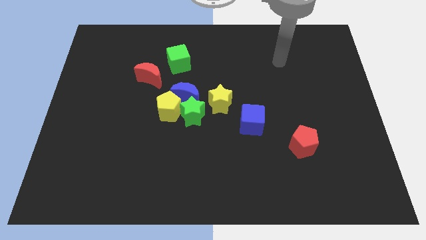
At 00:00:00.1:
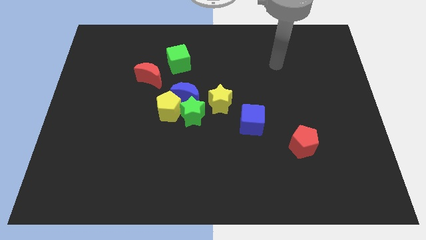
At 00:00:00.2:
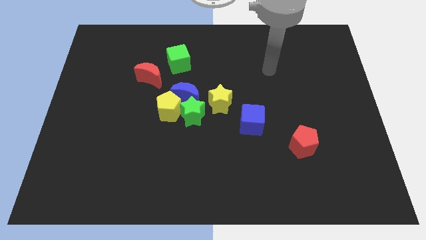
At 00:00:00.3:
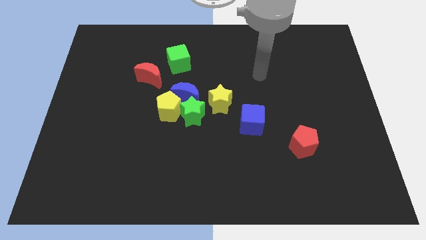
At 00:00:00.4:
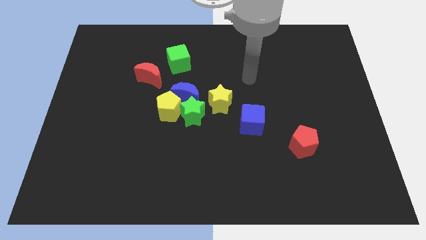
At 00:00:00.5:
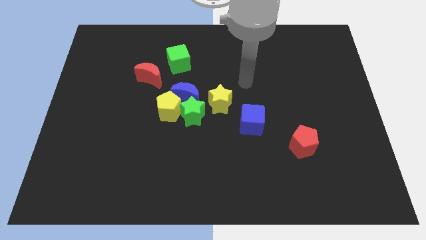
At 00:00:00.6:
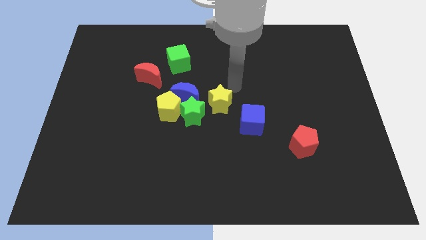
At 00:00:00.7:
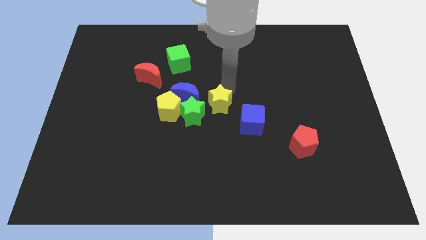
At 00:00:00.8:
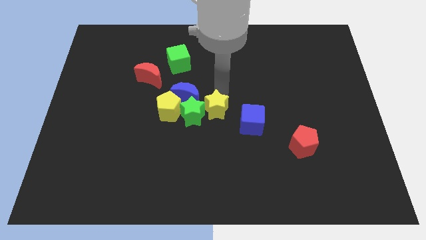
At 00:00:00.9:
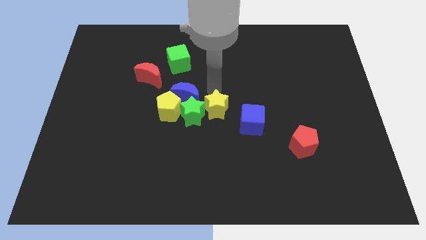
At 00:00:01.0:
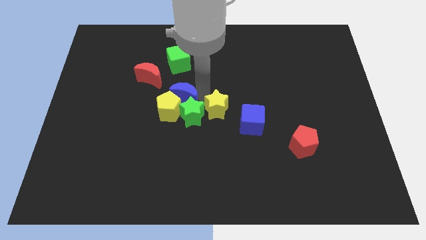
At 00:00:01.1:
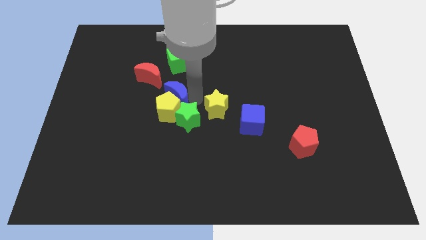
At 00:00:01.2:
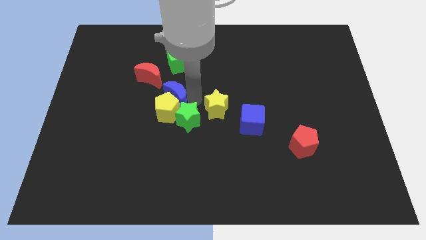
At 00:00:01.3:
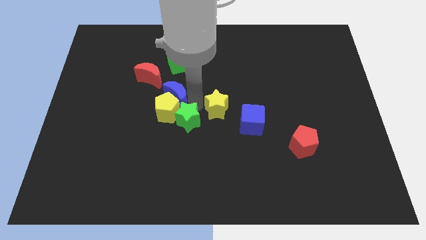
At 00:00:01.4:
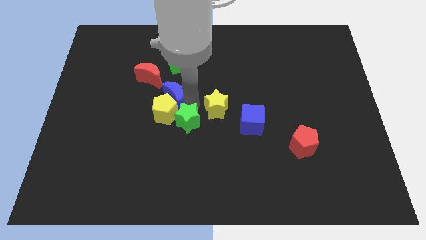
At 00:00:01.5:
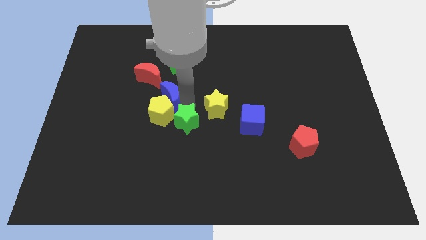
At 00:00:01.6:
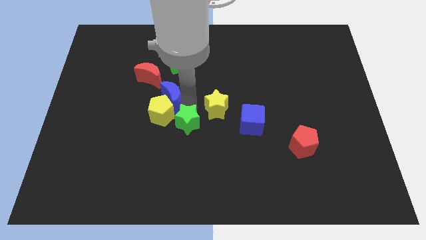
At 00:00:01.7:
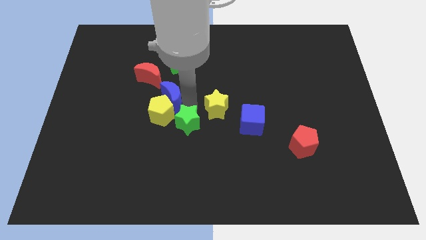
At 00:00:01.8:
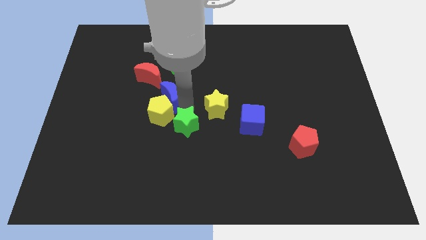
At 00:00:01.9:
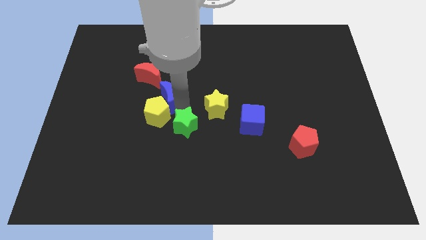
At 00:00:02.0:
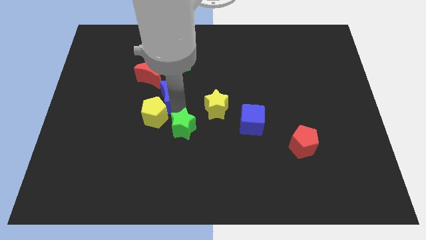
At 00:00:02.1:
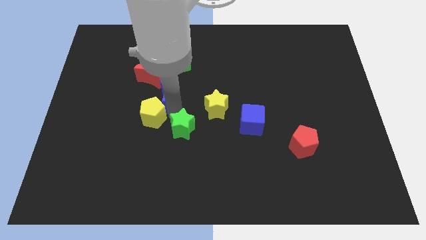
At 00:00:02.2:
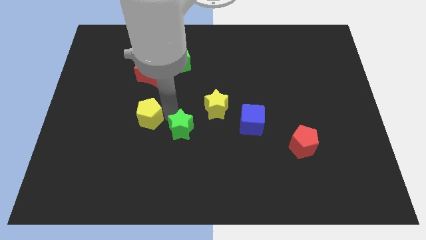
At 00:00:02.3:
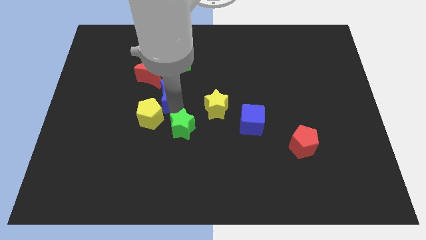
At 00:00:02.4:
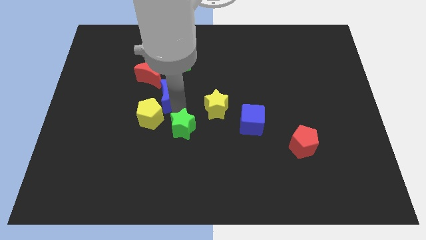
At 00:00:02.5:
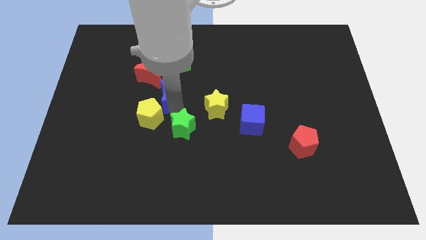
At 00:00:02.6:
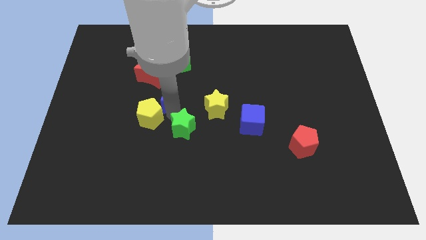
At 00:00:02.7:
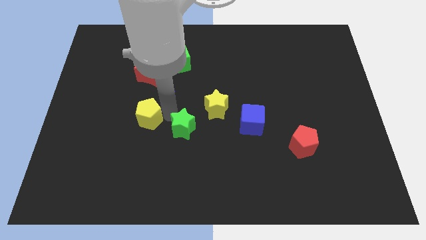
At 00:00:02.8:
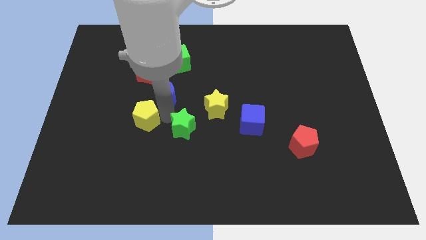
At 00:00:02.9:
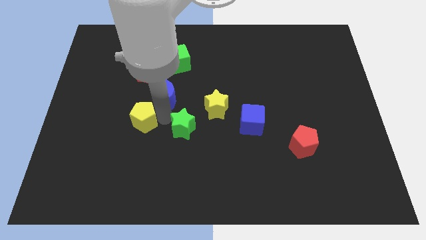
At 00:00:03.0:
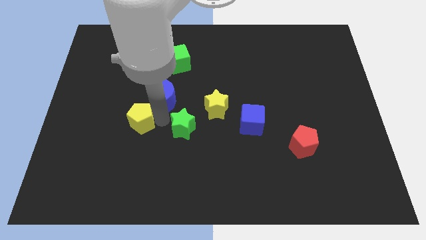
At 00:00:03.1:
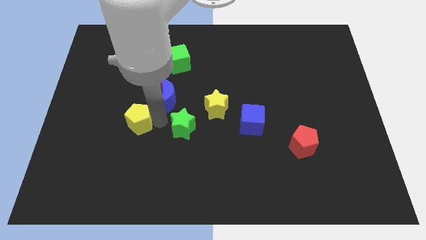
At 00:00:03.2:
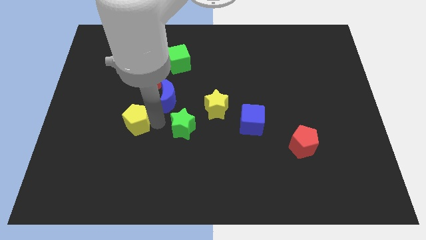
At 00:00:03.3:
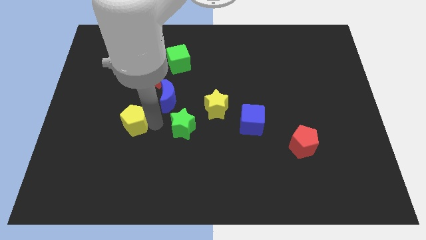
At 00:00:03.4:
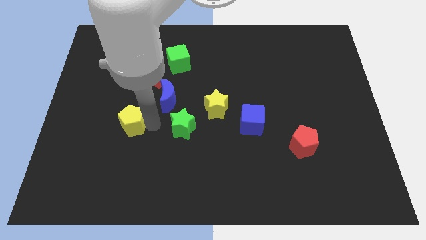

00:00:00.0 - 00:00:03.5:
move the yellow pentagon away from the blue moon and green star

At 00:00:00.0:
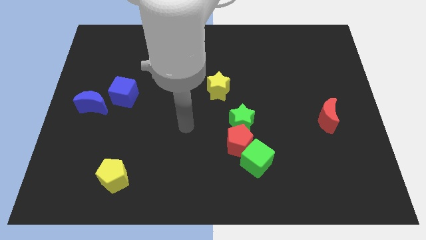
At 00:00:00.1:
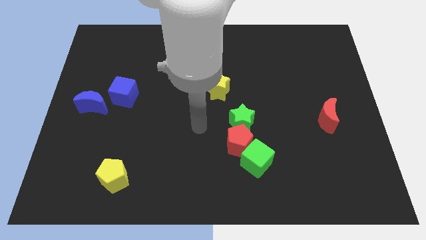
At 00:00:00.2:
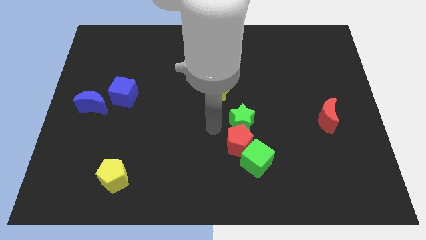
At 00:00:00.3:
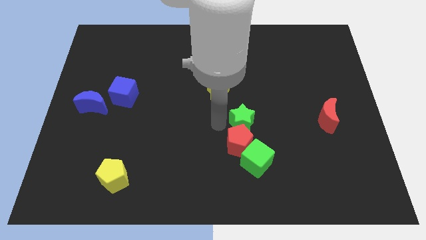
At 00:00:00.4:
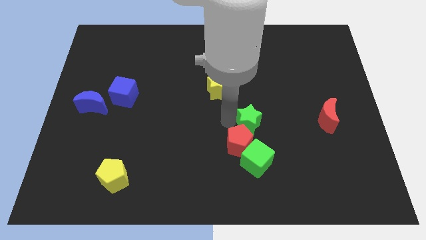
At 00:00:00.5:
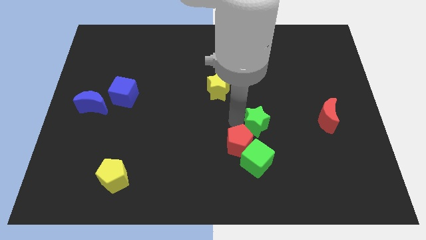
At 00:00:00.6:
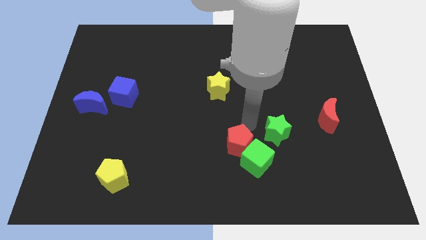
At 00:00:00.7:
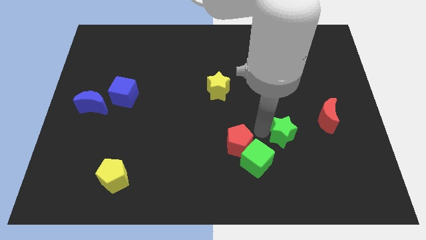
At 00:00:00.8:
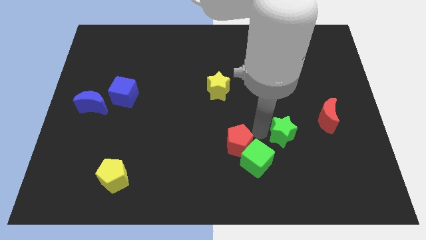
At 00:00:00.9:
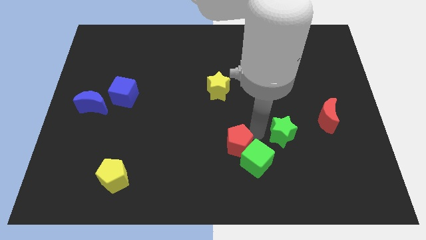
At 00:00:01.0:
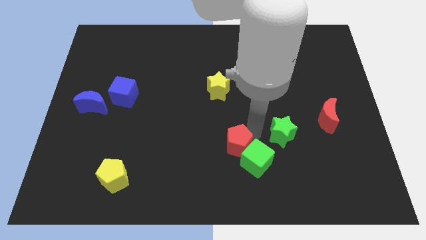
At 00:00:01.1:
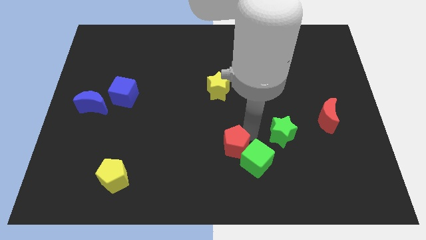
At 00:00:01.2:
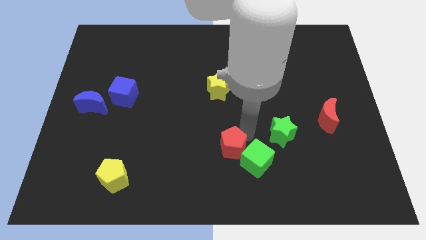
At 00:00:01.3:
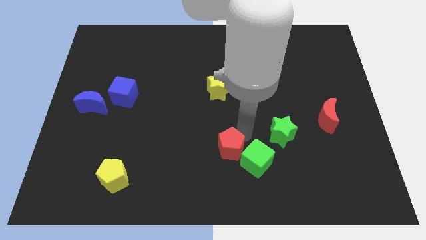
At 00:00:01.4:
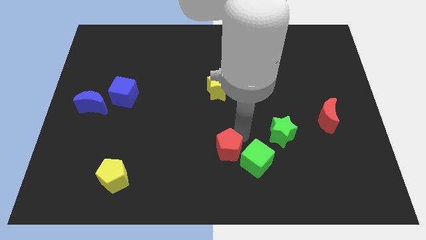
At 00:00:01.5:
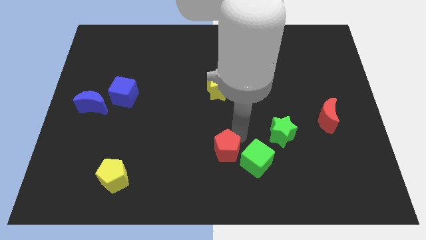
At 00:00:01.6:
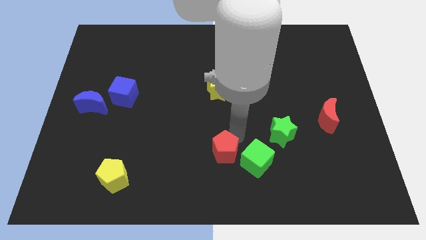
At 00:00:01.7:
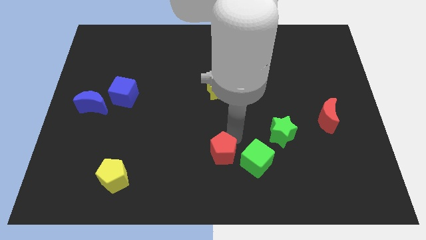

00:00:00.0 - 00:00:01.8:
separate the red pentagon from the green star and green cube

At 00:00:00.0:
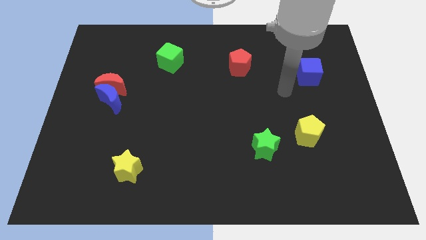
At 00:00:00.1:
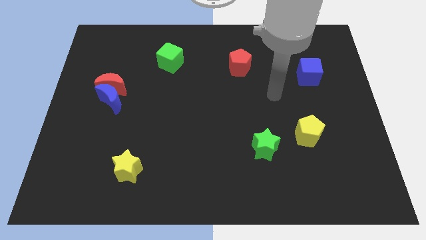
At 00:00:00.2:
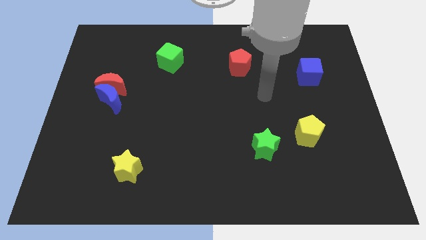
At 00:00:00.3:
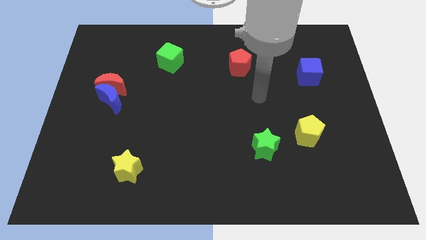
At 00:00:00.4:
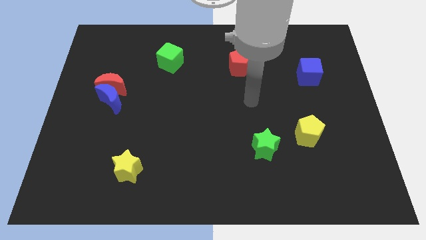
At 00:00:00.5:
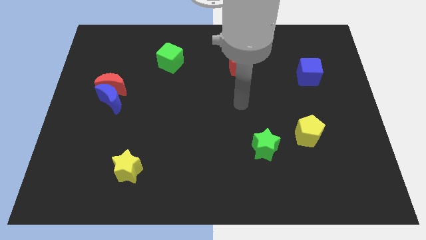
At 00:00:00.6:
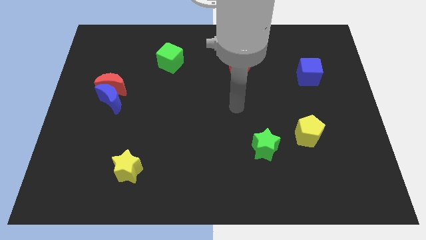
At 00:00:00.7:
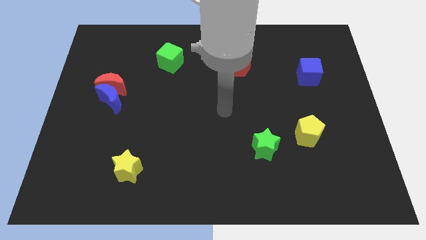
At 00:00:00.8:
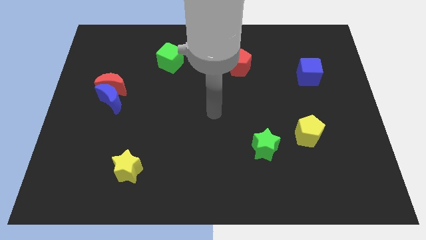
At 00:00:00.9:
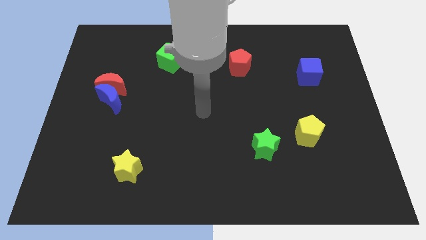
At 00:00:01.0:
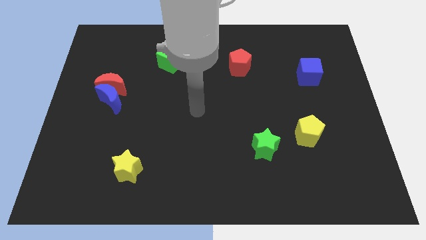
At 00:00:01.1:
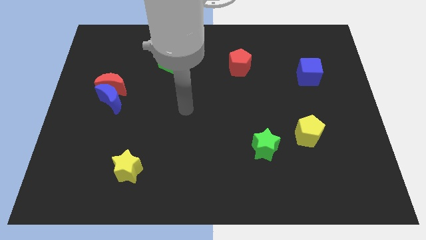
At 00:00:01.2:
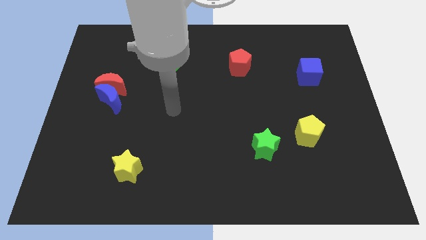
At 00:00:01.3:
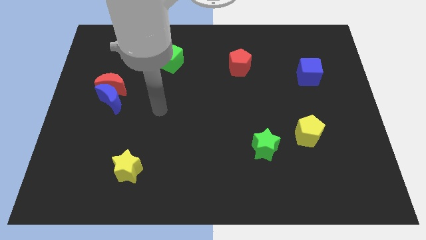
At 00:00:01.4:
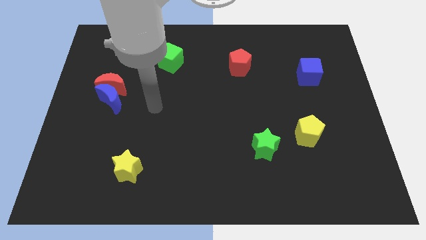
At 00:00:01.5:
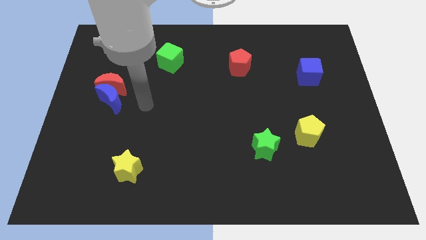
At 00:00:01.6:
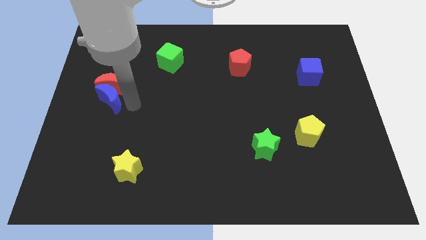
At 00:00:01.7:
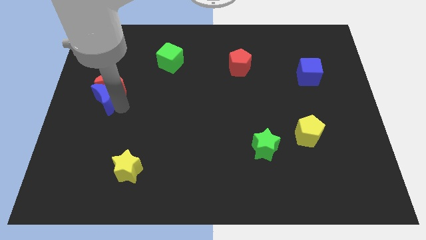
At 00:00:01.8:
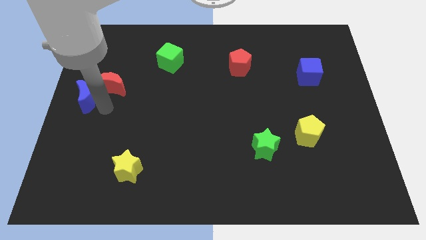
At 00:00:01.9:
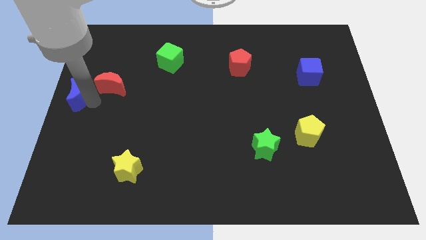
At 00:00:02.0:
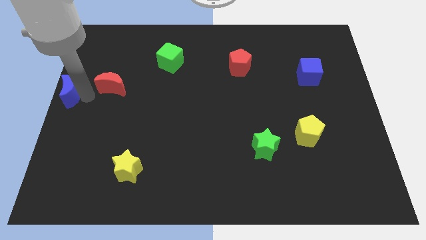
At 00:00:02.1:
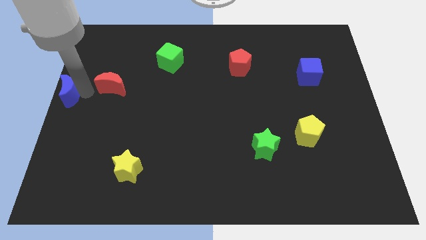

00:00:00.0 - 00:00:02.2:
separate the red moon from the blue moon

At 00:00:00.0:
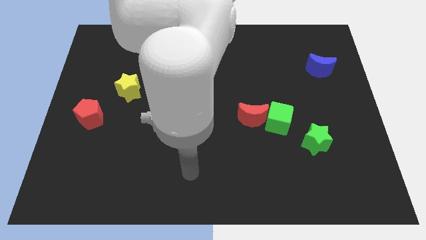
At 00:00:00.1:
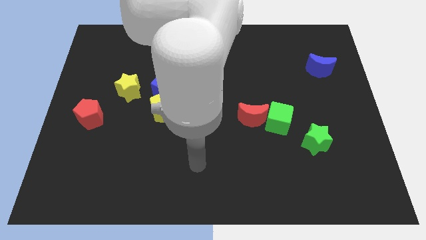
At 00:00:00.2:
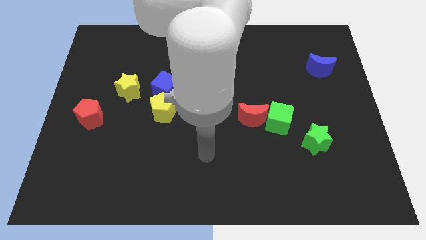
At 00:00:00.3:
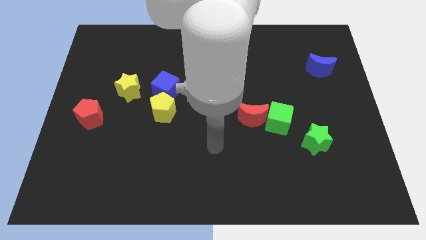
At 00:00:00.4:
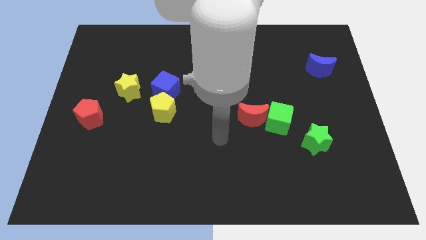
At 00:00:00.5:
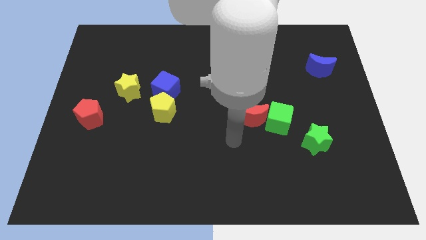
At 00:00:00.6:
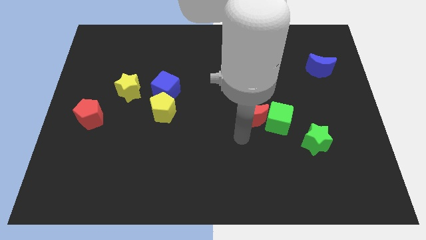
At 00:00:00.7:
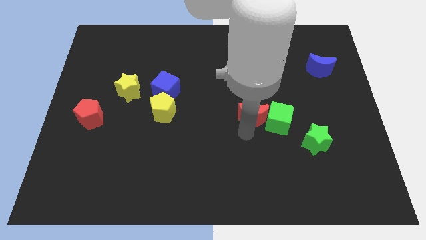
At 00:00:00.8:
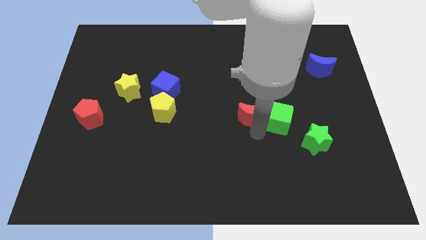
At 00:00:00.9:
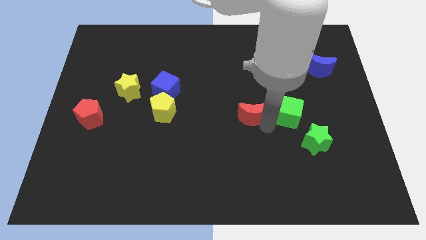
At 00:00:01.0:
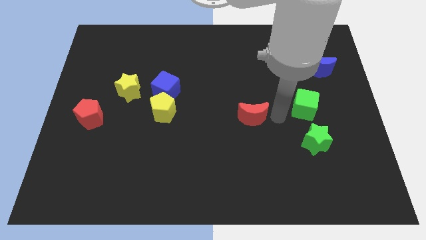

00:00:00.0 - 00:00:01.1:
separate the red moon from the green cube

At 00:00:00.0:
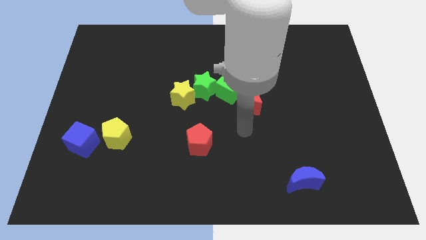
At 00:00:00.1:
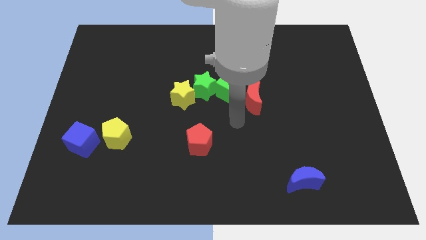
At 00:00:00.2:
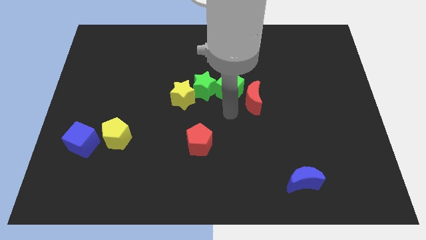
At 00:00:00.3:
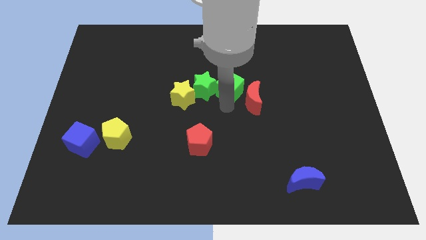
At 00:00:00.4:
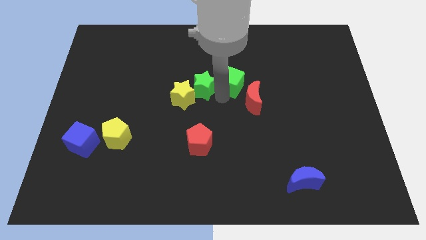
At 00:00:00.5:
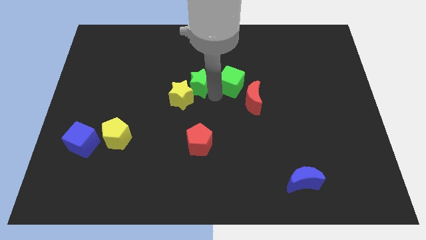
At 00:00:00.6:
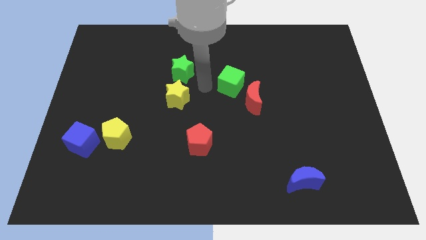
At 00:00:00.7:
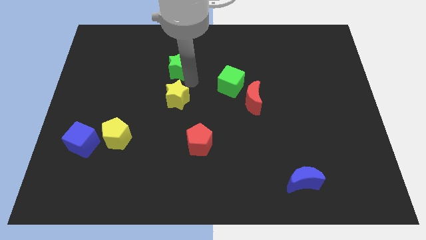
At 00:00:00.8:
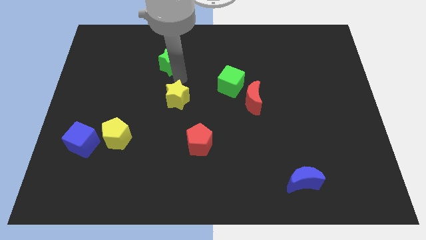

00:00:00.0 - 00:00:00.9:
separate the yellow star from the green star
